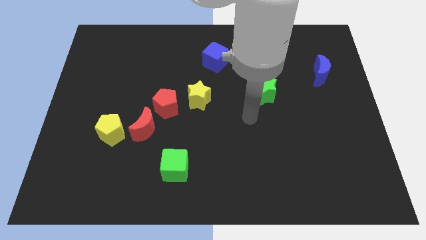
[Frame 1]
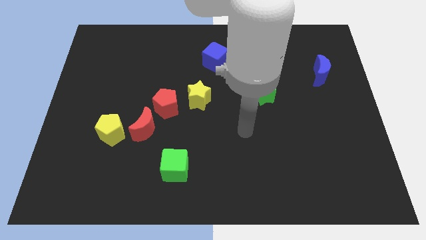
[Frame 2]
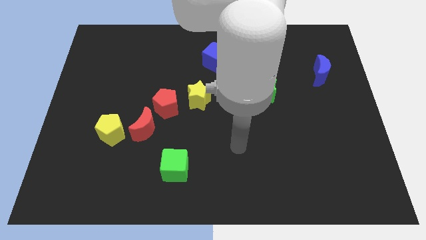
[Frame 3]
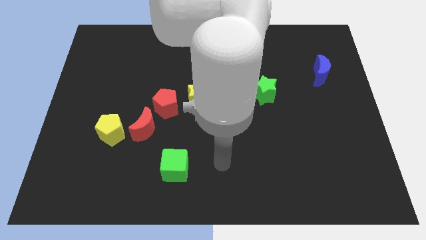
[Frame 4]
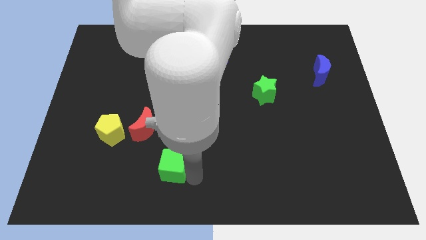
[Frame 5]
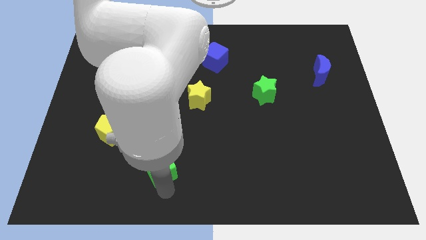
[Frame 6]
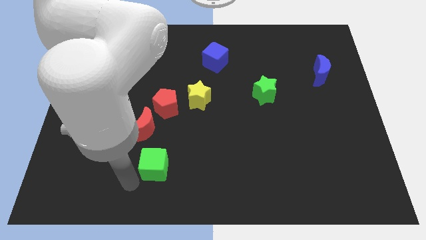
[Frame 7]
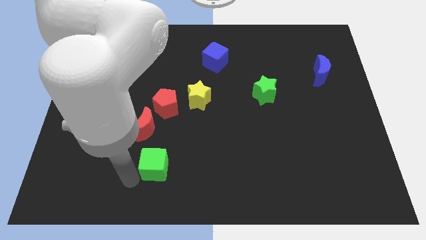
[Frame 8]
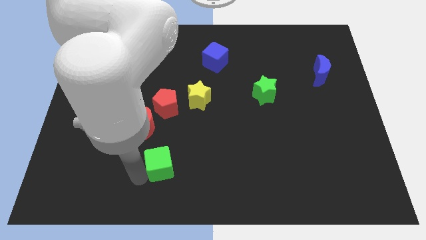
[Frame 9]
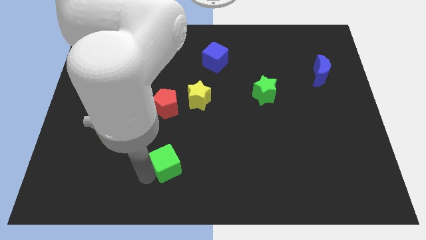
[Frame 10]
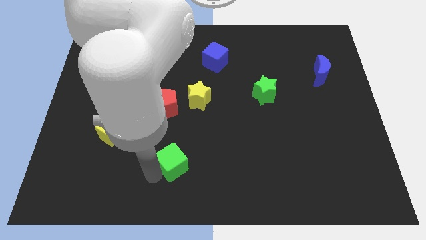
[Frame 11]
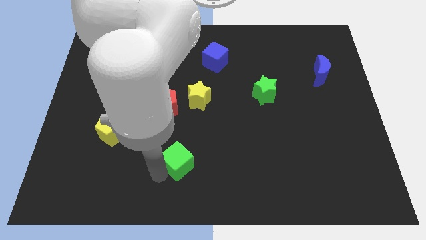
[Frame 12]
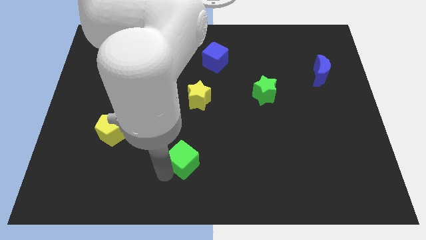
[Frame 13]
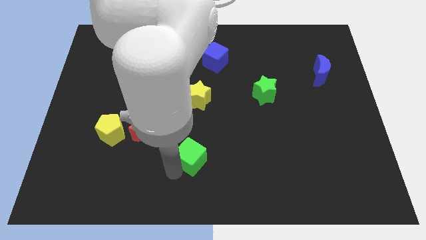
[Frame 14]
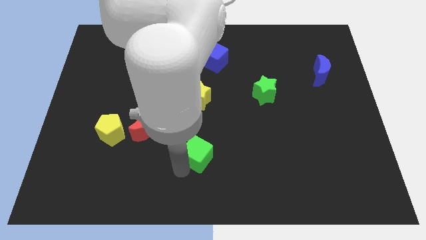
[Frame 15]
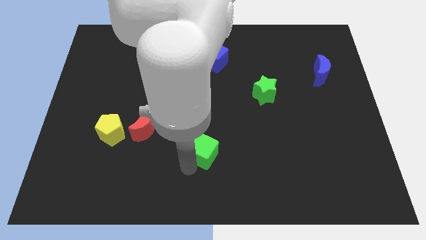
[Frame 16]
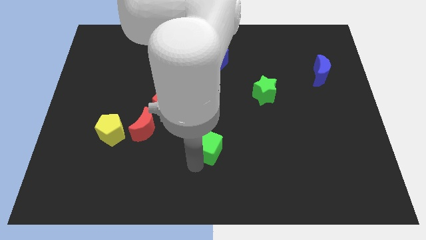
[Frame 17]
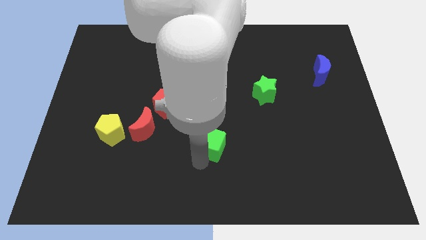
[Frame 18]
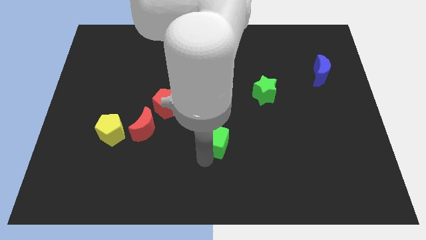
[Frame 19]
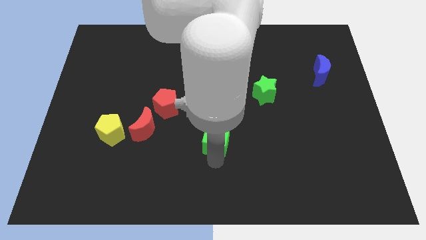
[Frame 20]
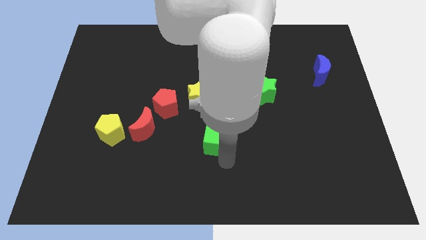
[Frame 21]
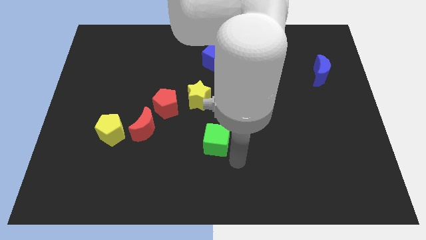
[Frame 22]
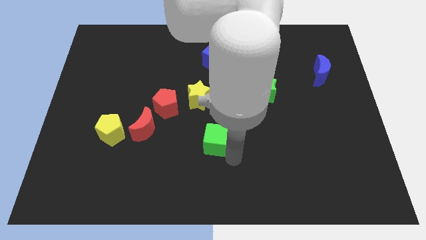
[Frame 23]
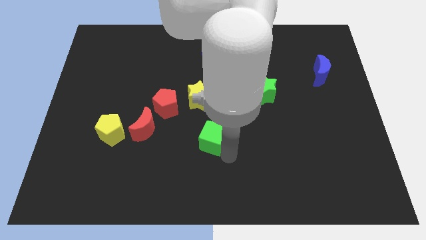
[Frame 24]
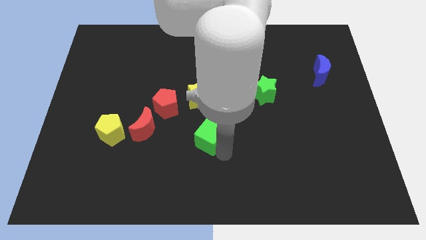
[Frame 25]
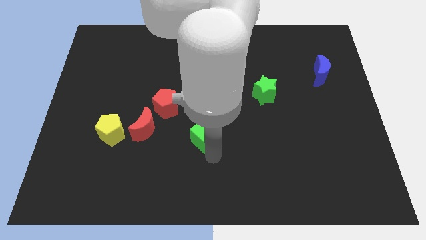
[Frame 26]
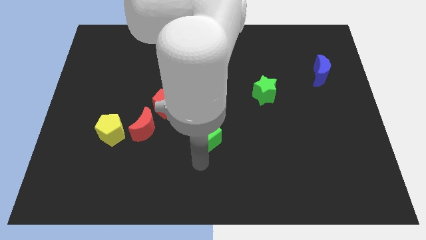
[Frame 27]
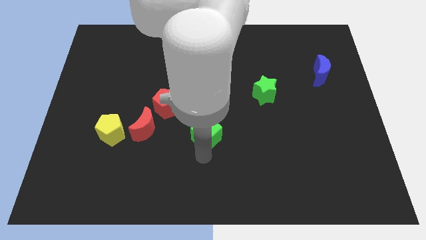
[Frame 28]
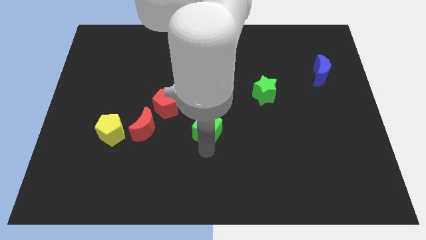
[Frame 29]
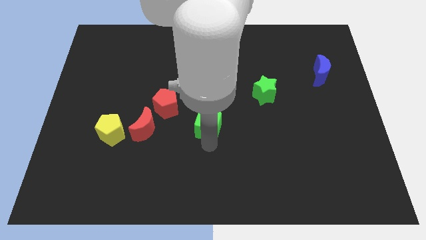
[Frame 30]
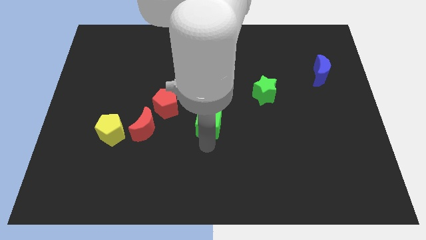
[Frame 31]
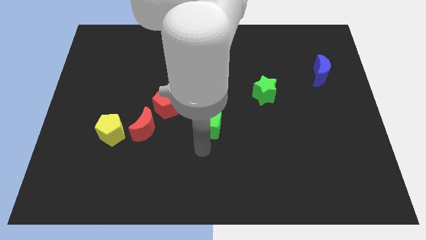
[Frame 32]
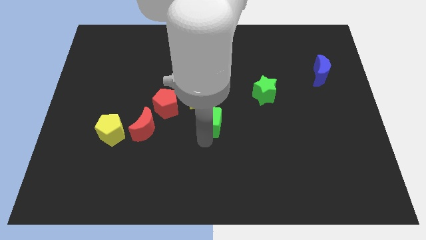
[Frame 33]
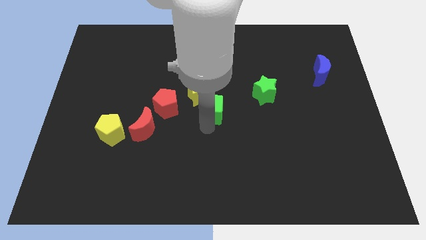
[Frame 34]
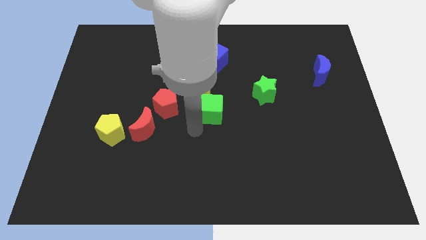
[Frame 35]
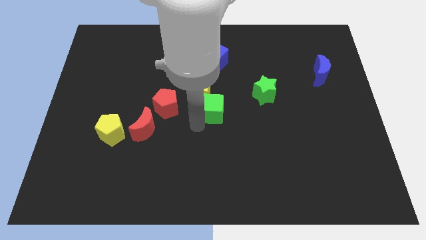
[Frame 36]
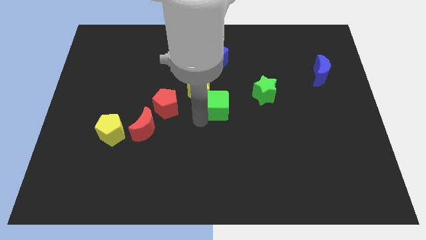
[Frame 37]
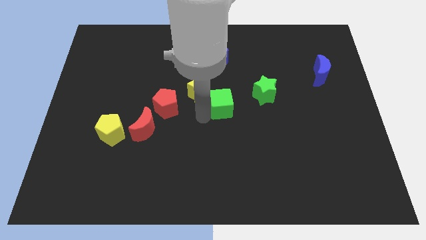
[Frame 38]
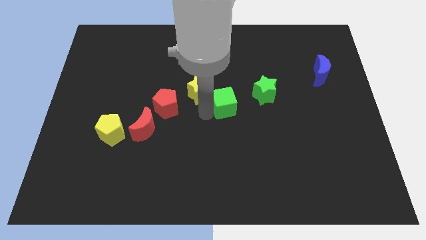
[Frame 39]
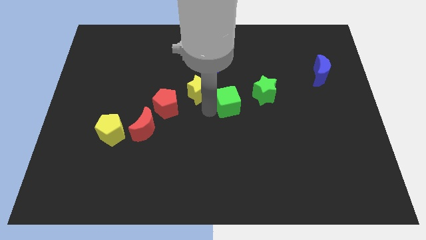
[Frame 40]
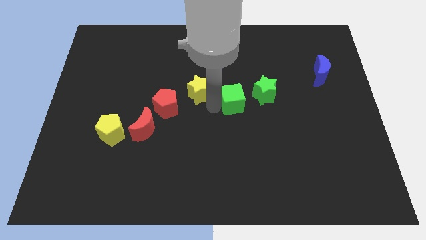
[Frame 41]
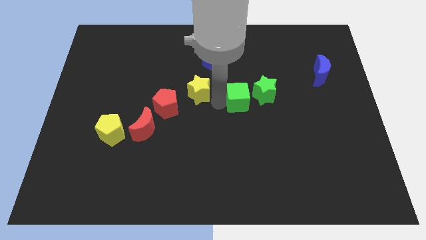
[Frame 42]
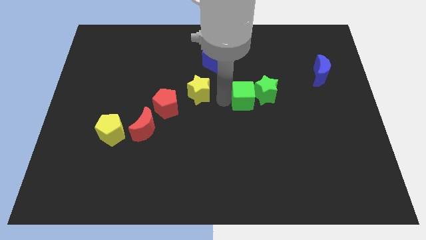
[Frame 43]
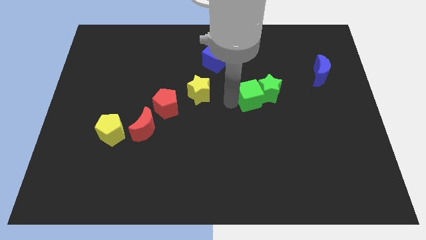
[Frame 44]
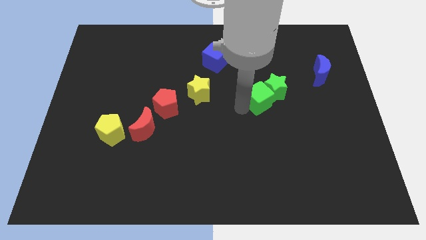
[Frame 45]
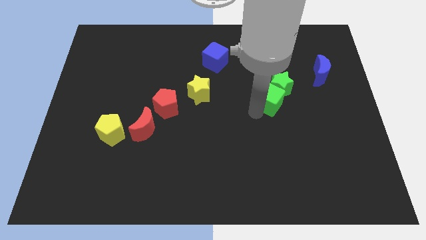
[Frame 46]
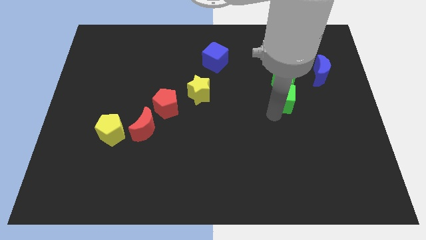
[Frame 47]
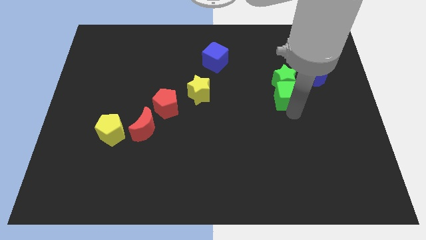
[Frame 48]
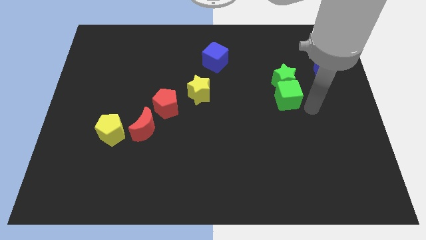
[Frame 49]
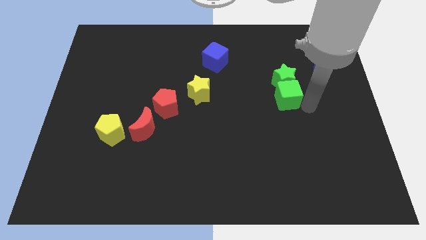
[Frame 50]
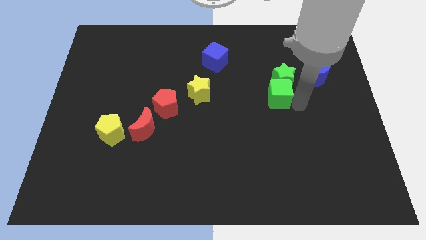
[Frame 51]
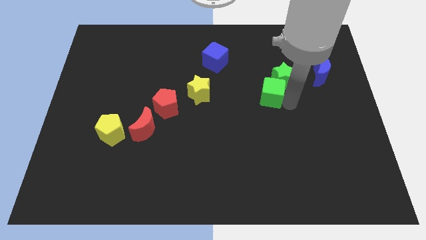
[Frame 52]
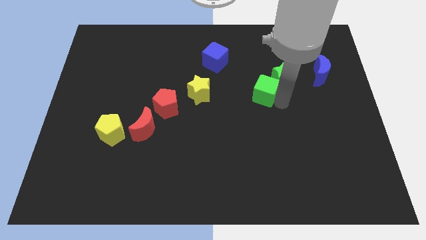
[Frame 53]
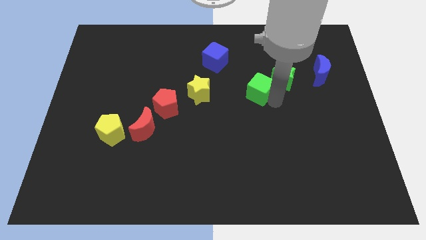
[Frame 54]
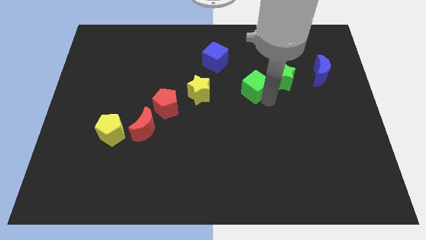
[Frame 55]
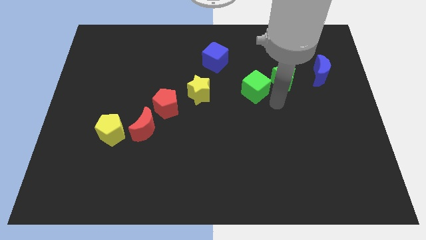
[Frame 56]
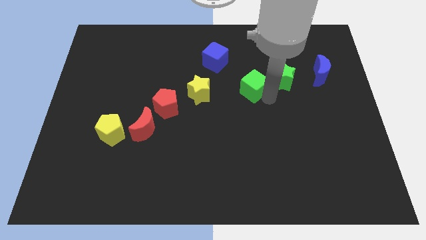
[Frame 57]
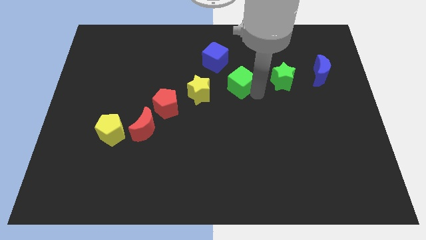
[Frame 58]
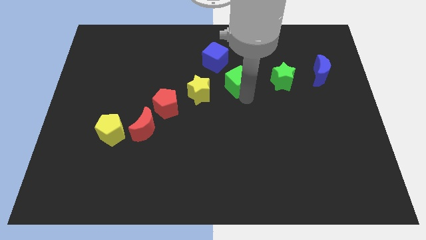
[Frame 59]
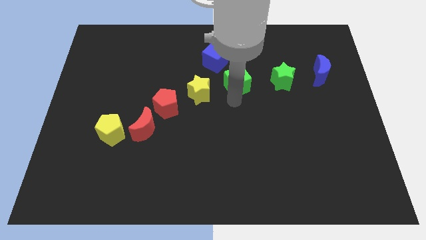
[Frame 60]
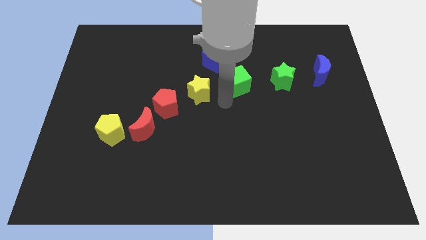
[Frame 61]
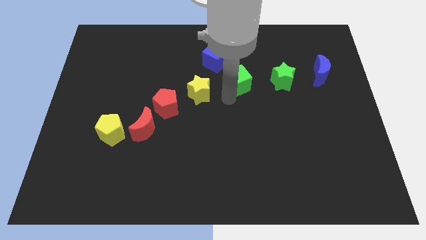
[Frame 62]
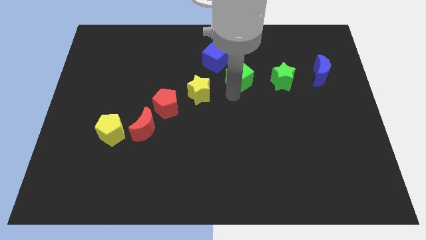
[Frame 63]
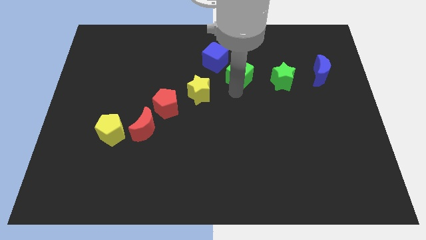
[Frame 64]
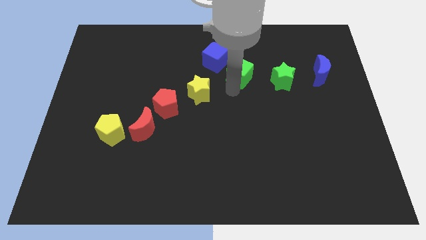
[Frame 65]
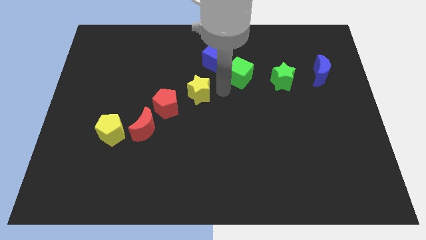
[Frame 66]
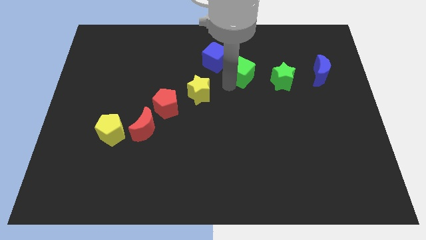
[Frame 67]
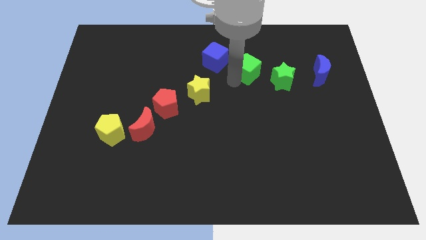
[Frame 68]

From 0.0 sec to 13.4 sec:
put the green cube to the right of the blue cube

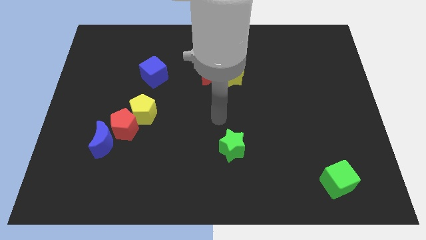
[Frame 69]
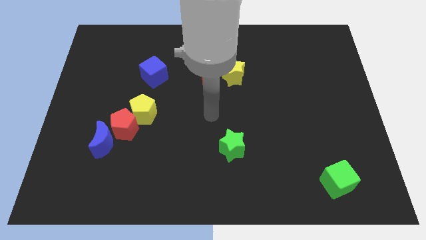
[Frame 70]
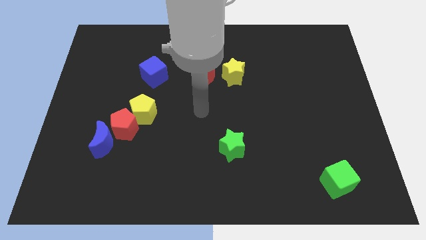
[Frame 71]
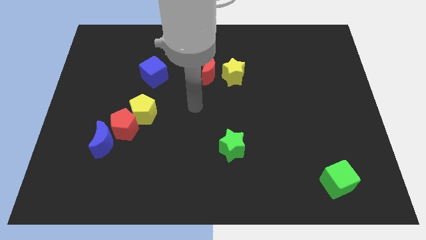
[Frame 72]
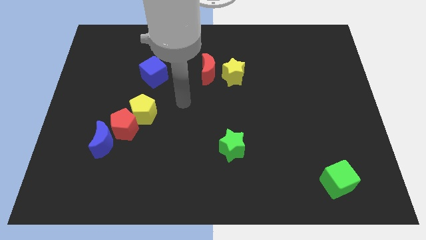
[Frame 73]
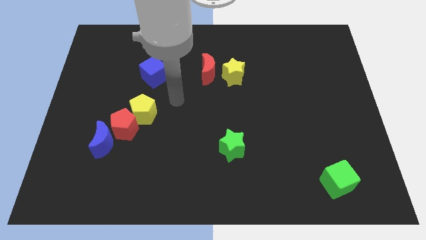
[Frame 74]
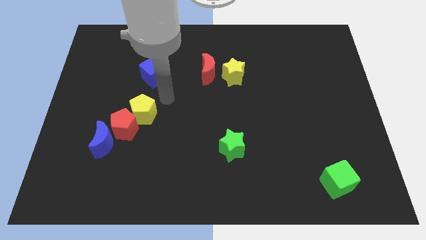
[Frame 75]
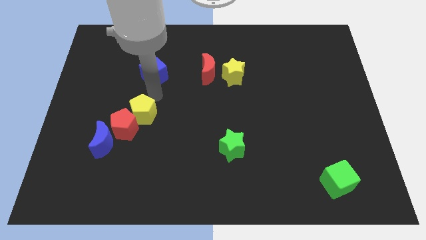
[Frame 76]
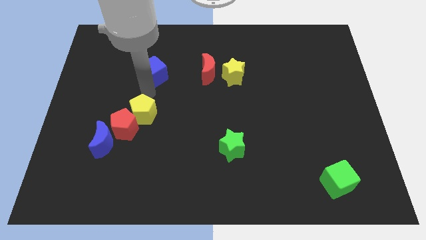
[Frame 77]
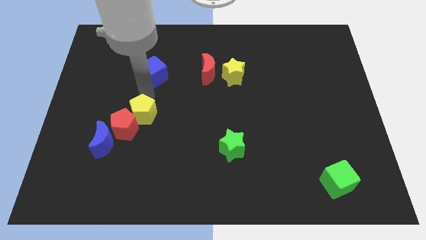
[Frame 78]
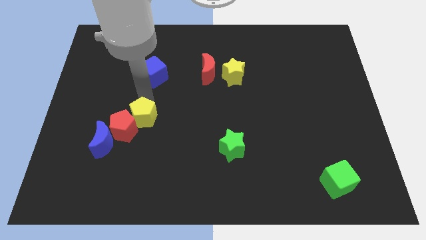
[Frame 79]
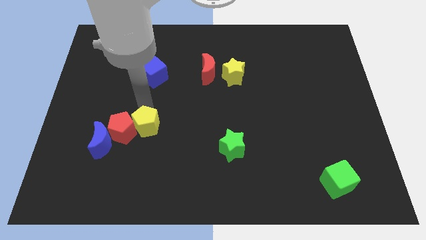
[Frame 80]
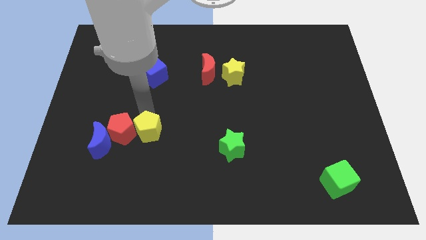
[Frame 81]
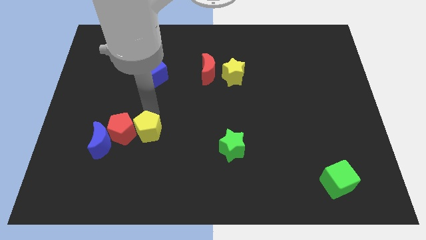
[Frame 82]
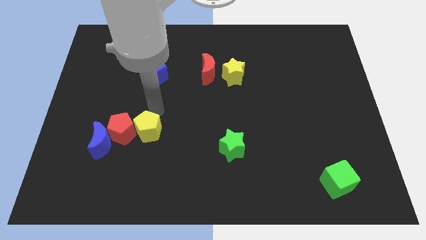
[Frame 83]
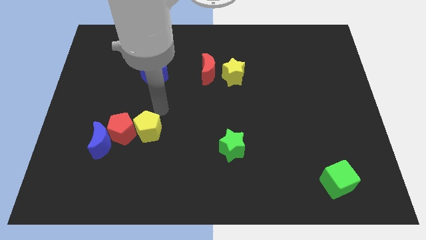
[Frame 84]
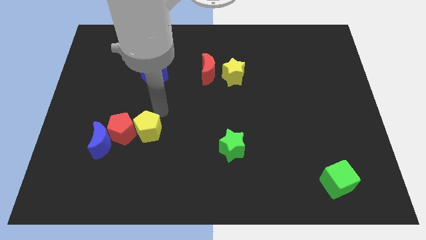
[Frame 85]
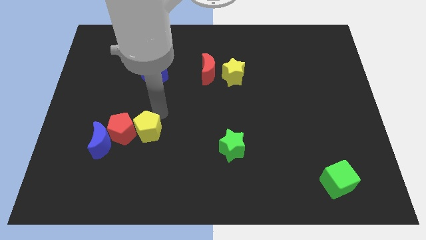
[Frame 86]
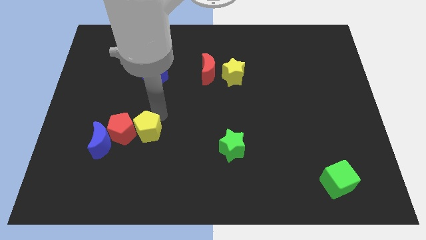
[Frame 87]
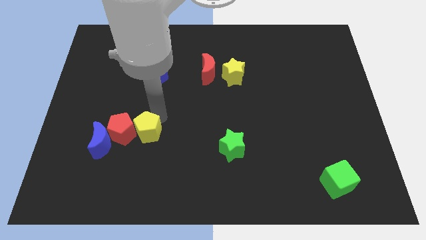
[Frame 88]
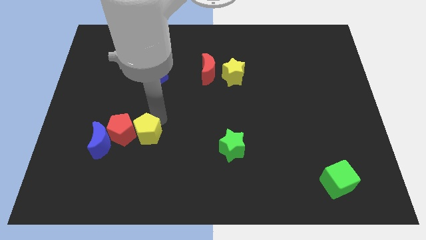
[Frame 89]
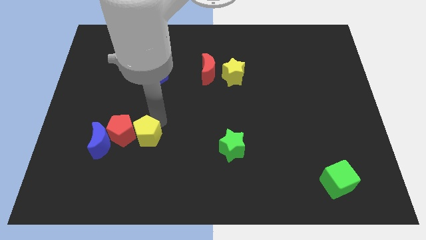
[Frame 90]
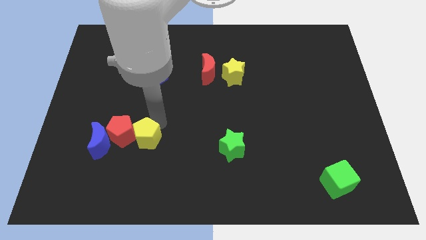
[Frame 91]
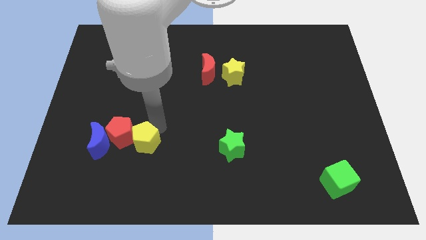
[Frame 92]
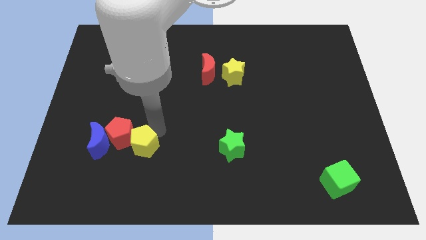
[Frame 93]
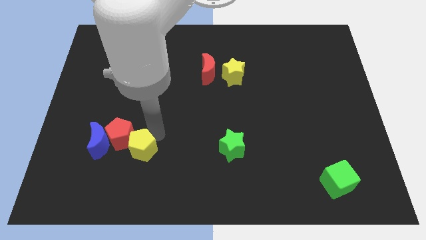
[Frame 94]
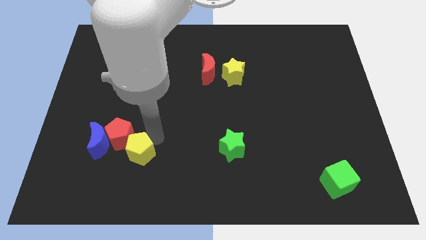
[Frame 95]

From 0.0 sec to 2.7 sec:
move the yellow pentagon to the bottom of the red pentagon
